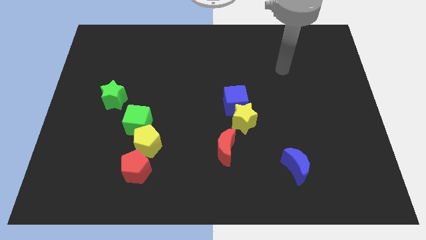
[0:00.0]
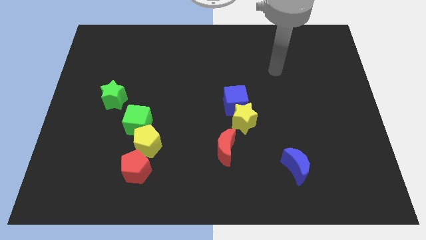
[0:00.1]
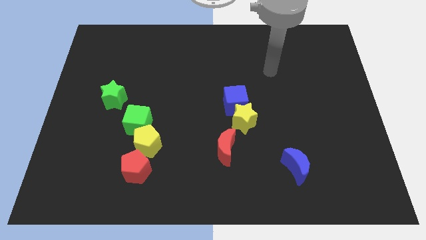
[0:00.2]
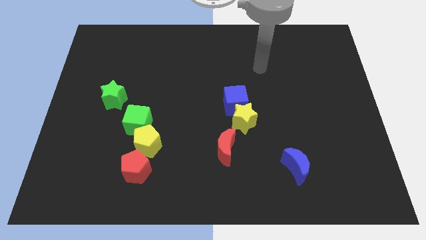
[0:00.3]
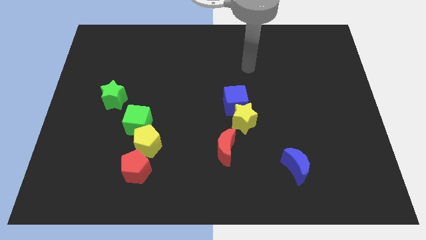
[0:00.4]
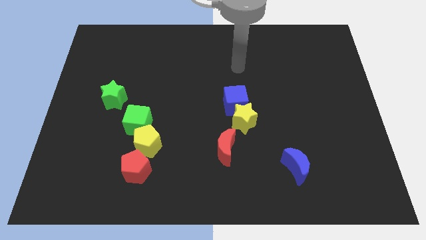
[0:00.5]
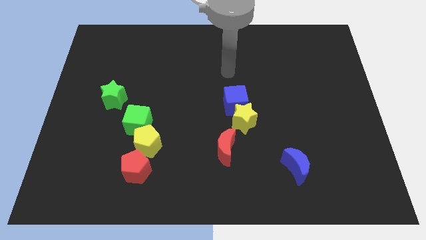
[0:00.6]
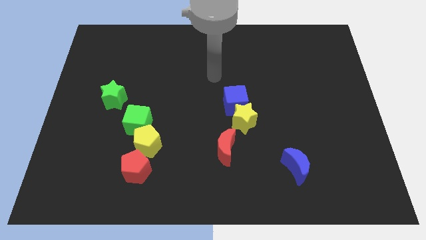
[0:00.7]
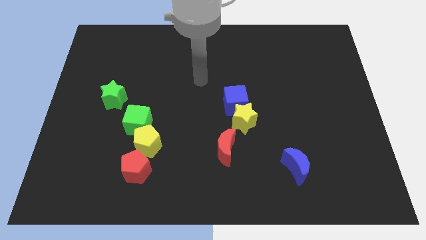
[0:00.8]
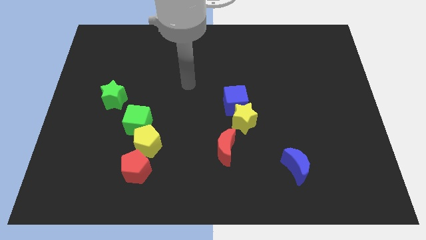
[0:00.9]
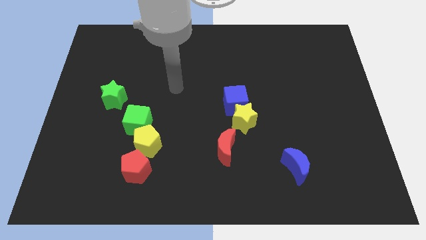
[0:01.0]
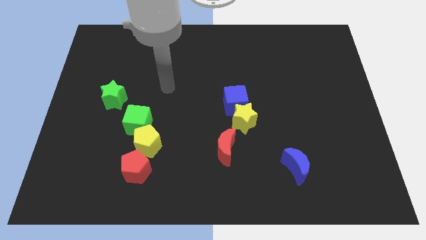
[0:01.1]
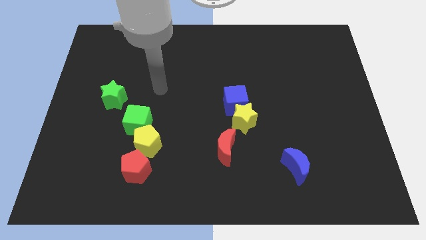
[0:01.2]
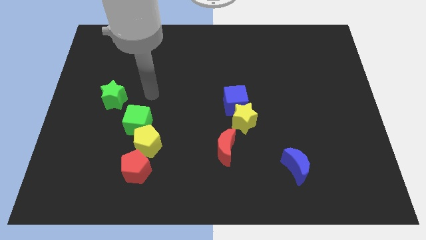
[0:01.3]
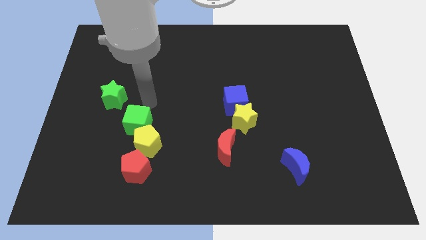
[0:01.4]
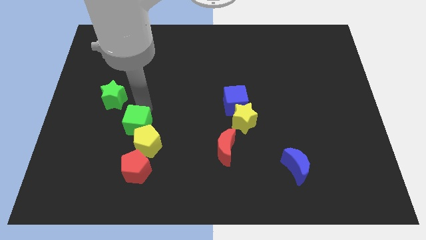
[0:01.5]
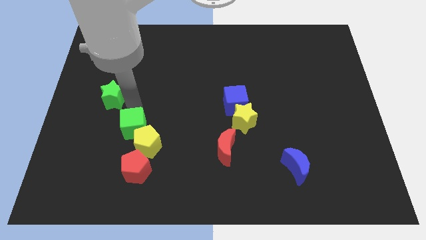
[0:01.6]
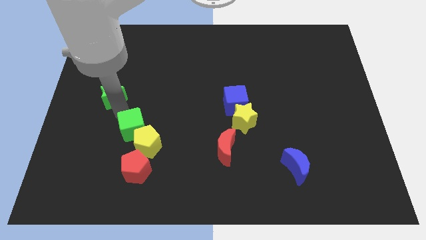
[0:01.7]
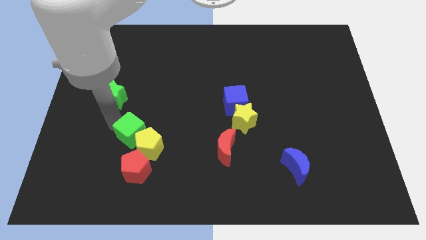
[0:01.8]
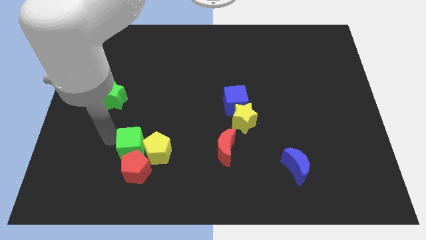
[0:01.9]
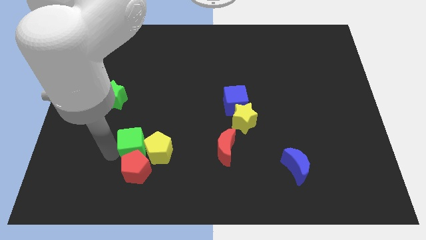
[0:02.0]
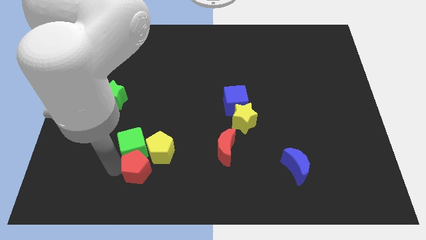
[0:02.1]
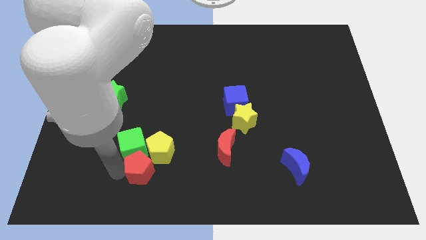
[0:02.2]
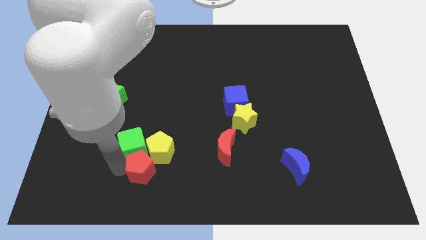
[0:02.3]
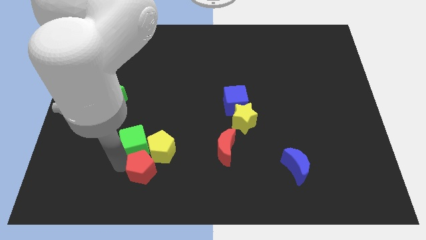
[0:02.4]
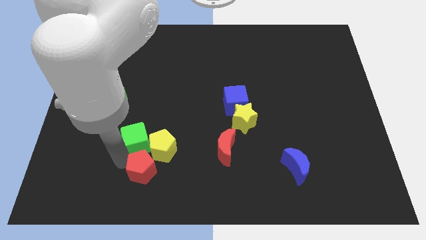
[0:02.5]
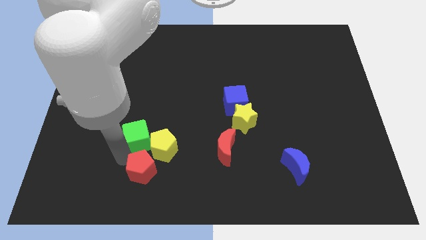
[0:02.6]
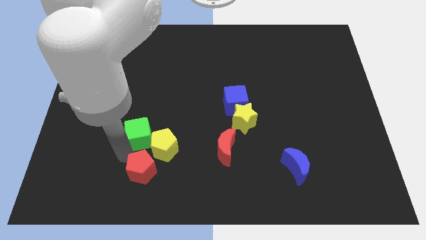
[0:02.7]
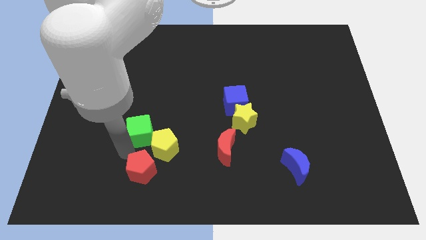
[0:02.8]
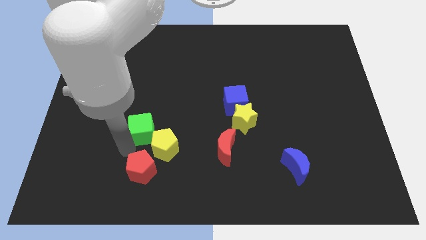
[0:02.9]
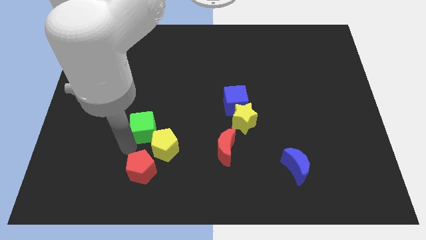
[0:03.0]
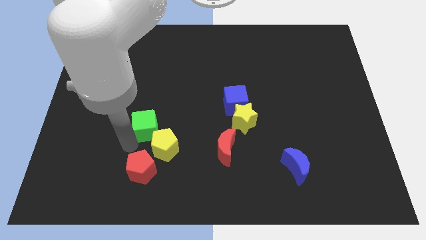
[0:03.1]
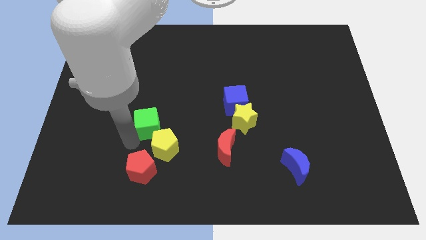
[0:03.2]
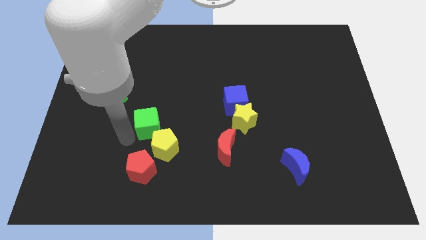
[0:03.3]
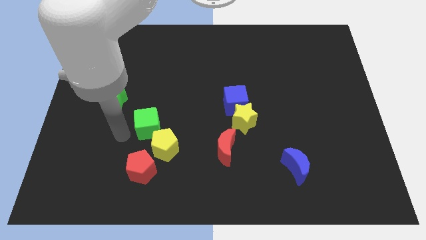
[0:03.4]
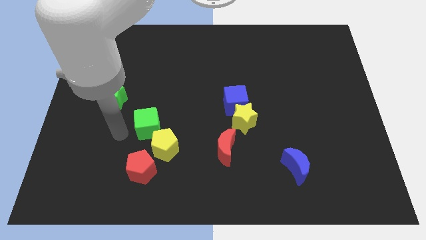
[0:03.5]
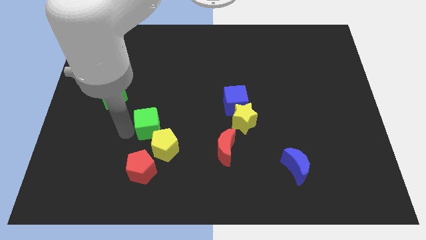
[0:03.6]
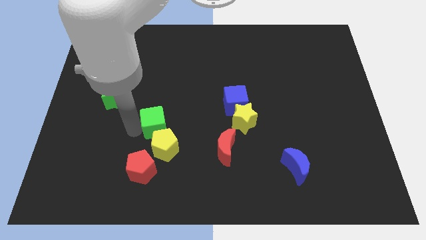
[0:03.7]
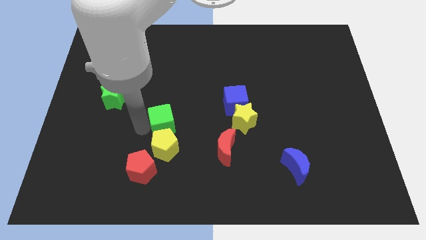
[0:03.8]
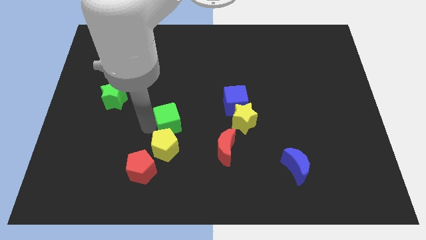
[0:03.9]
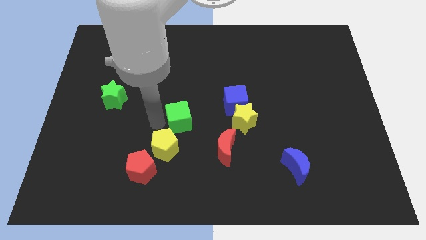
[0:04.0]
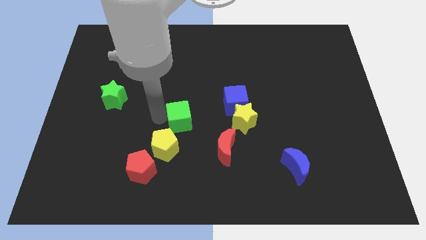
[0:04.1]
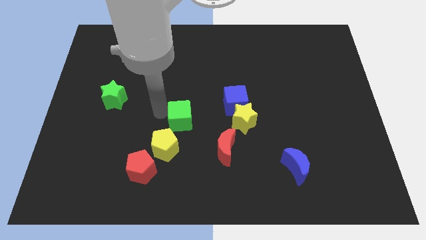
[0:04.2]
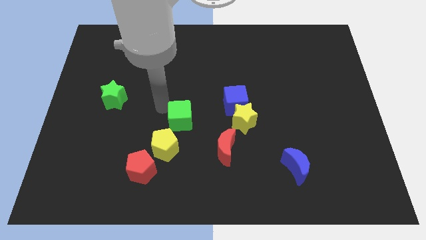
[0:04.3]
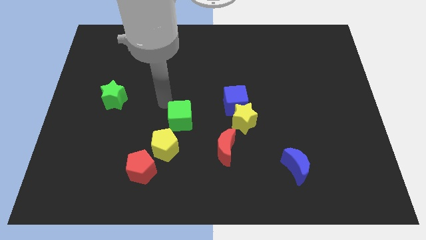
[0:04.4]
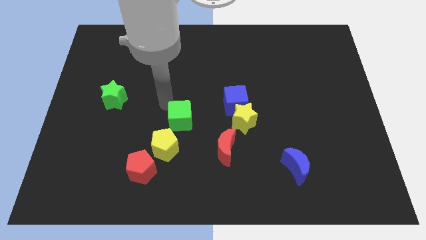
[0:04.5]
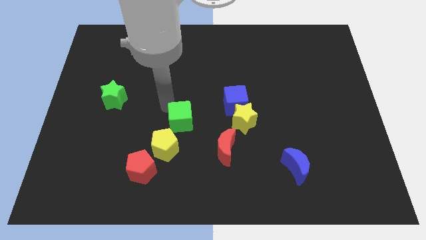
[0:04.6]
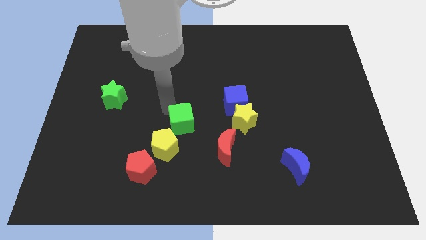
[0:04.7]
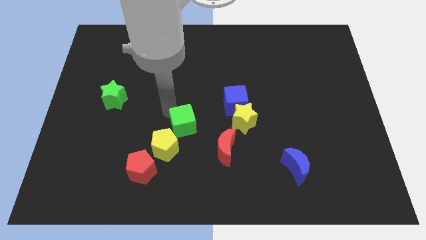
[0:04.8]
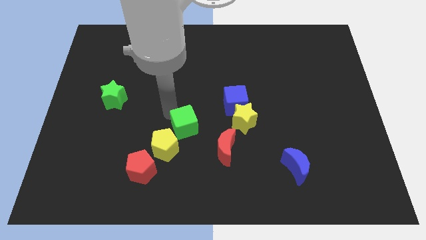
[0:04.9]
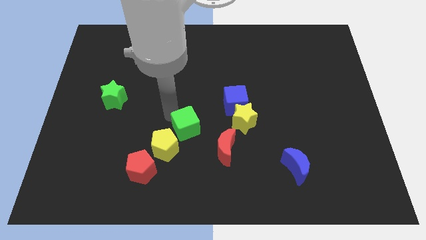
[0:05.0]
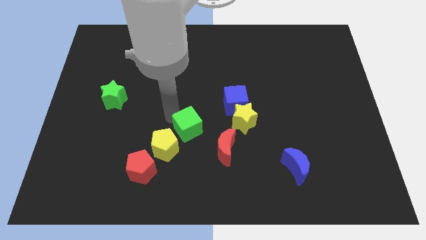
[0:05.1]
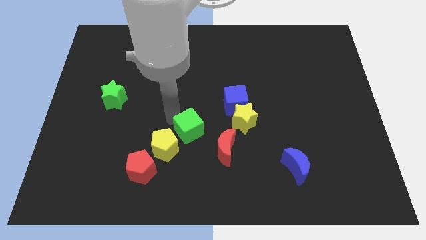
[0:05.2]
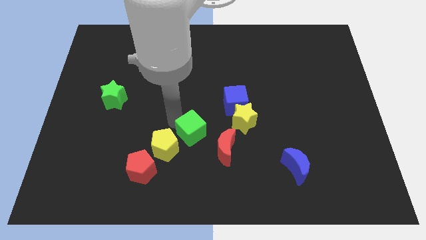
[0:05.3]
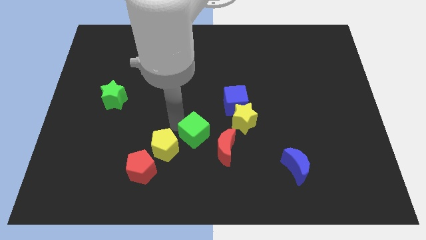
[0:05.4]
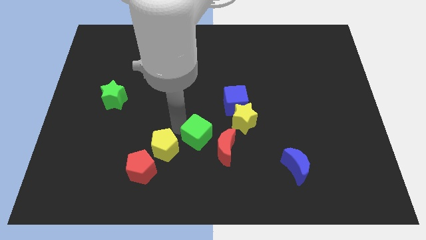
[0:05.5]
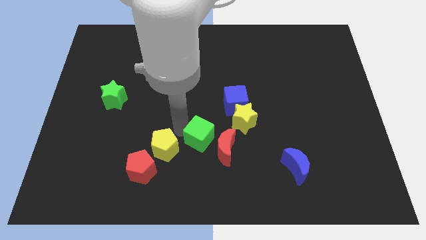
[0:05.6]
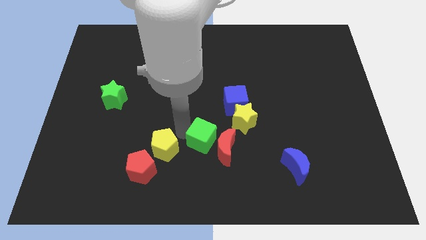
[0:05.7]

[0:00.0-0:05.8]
push the green cube close to the red moon

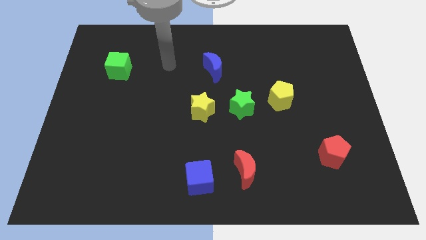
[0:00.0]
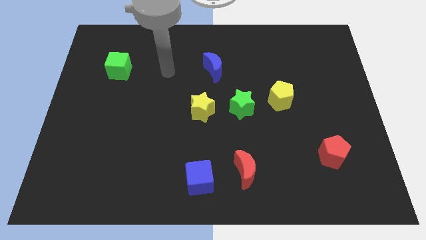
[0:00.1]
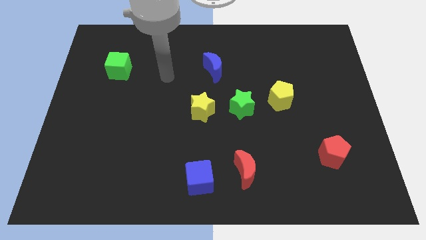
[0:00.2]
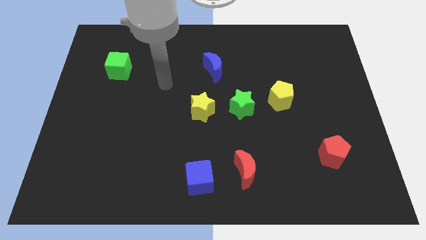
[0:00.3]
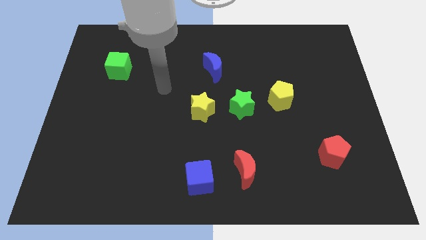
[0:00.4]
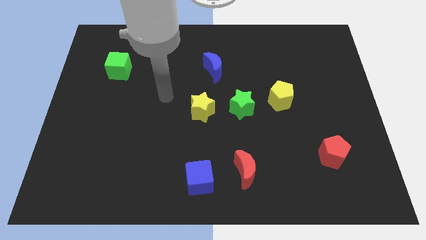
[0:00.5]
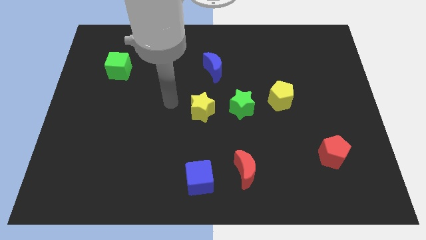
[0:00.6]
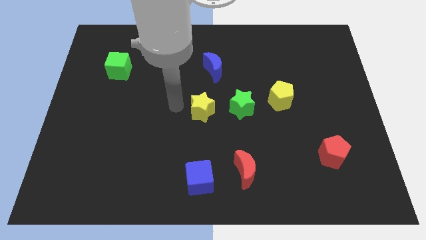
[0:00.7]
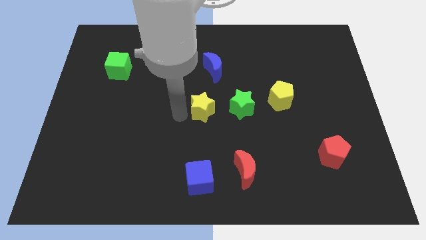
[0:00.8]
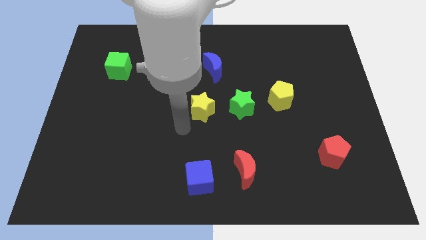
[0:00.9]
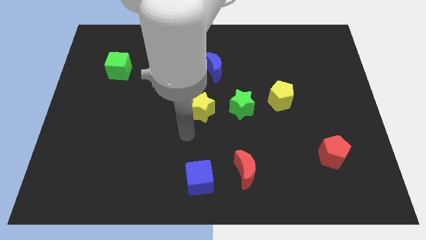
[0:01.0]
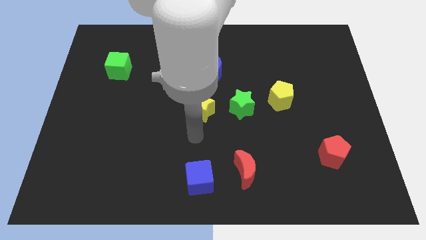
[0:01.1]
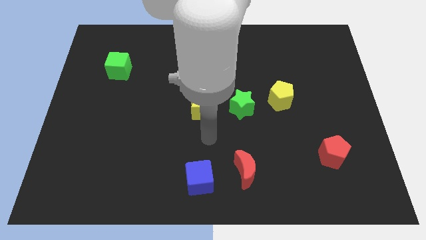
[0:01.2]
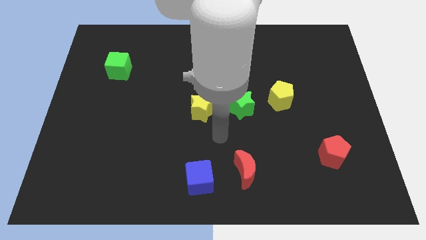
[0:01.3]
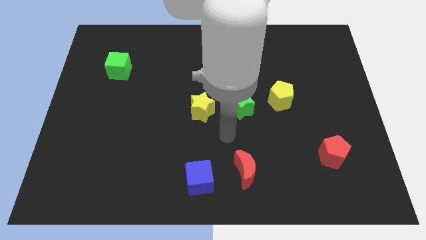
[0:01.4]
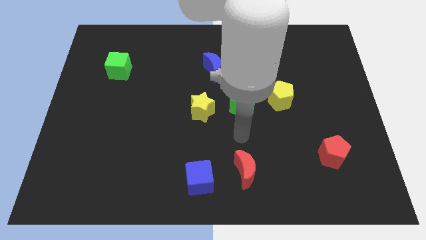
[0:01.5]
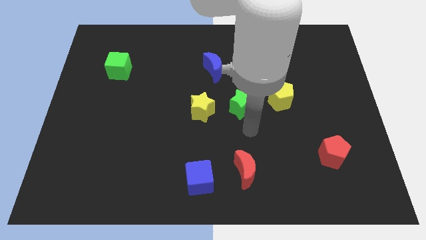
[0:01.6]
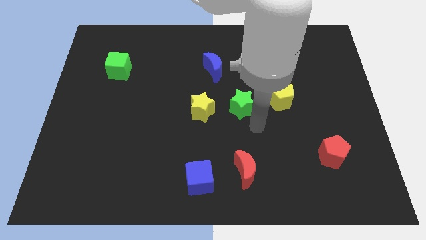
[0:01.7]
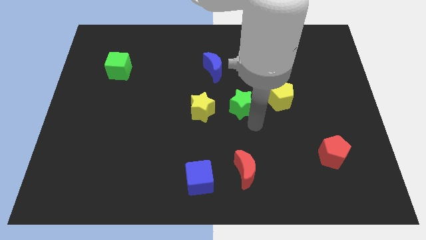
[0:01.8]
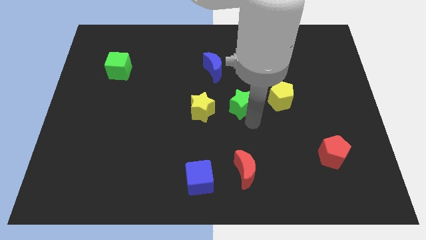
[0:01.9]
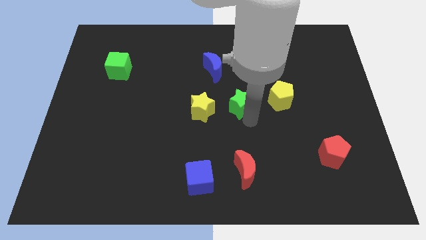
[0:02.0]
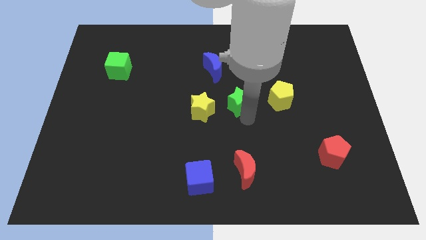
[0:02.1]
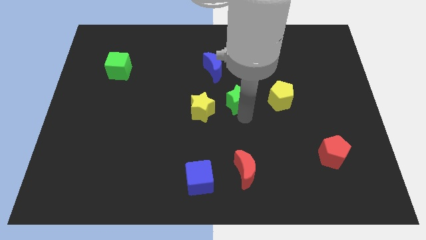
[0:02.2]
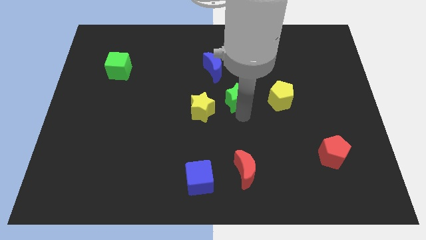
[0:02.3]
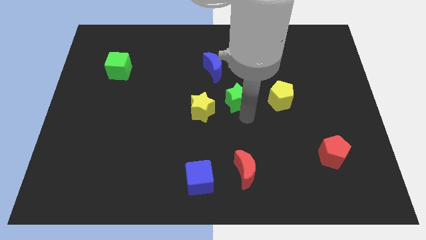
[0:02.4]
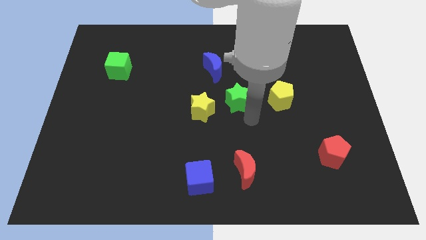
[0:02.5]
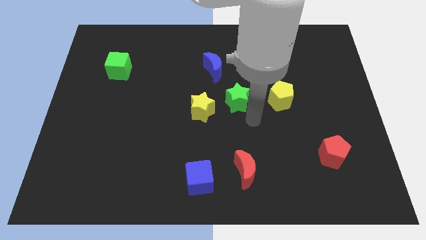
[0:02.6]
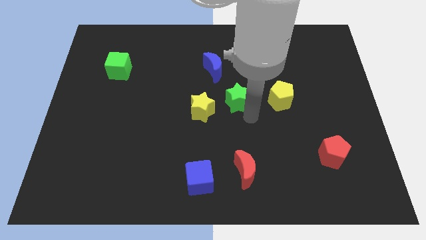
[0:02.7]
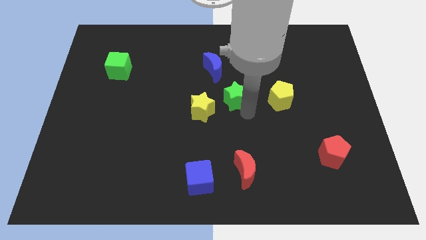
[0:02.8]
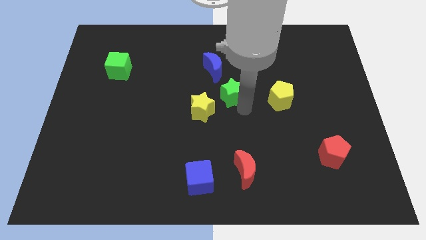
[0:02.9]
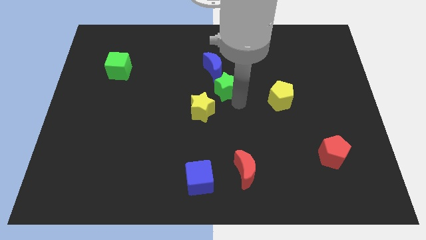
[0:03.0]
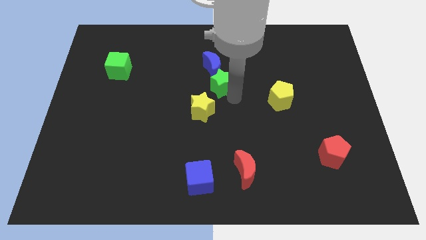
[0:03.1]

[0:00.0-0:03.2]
put the green star next to the blue moon
